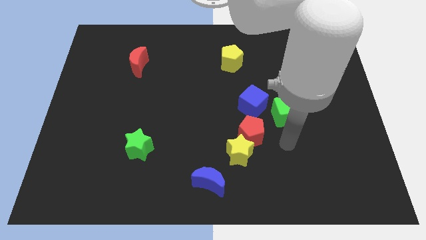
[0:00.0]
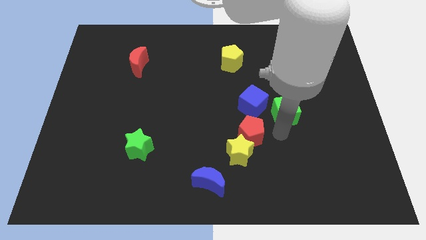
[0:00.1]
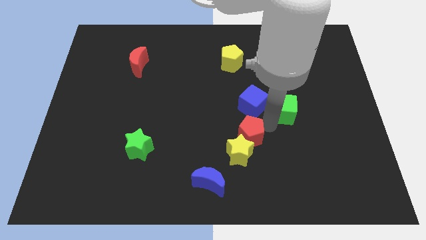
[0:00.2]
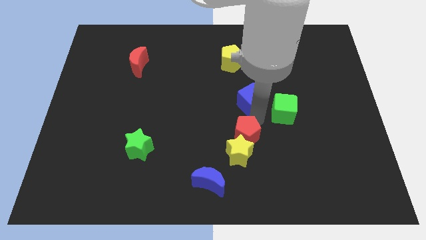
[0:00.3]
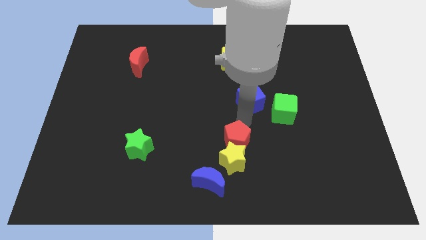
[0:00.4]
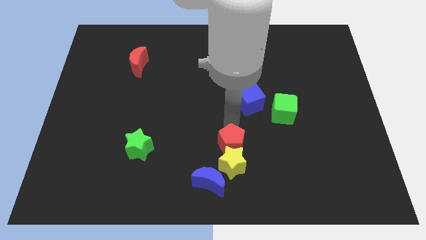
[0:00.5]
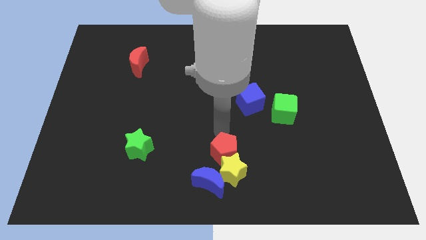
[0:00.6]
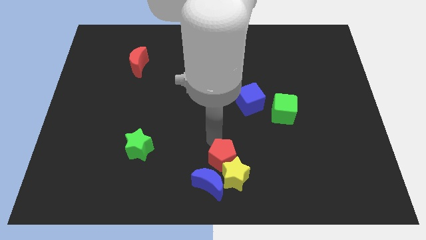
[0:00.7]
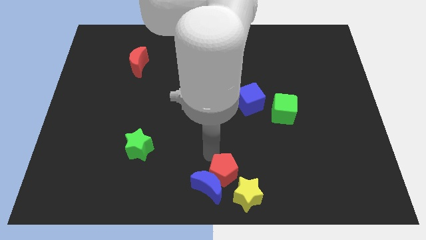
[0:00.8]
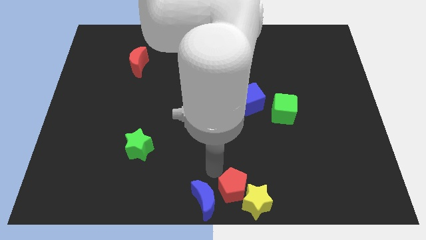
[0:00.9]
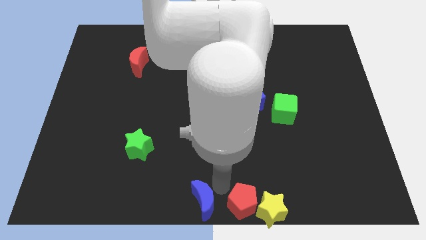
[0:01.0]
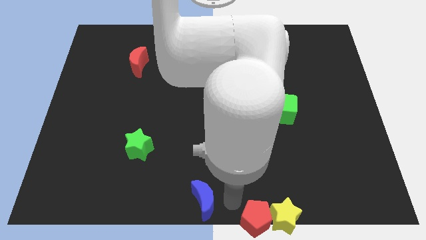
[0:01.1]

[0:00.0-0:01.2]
move the yellow star away from the red pentagon and blue moon

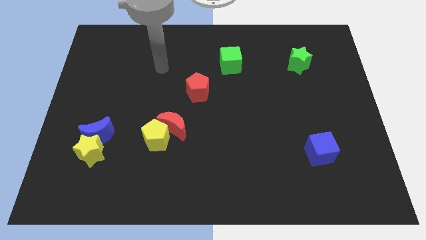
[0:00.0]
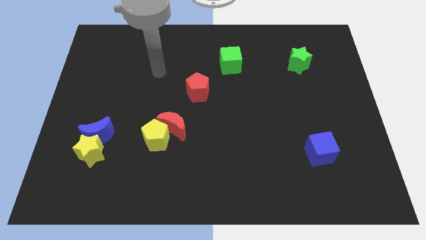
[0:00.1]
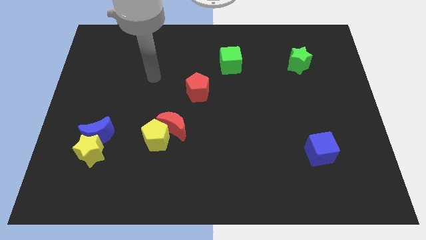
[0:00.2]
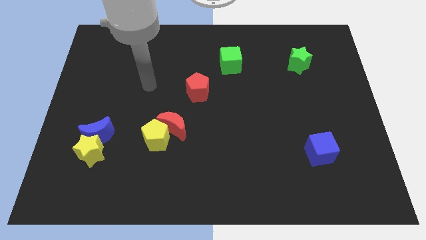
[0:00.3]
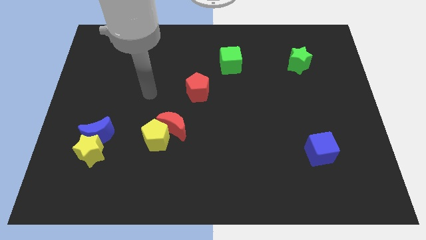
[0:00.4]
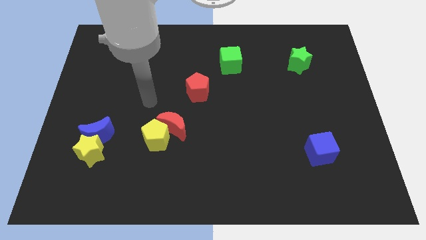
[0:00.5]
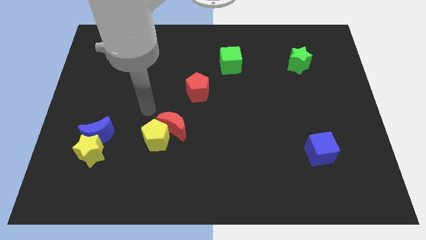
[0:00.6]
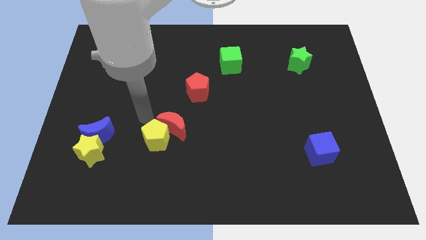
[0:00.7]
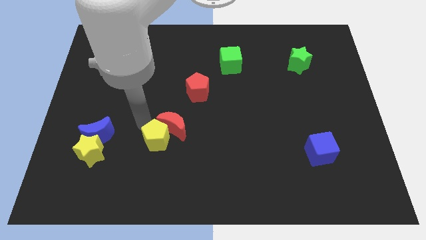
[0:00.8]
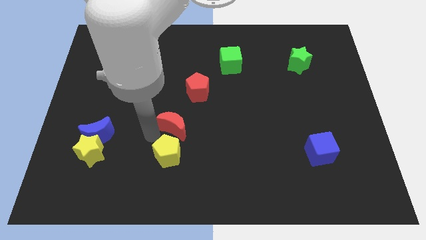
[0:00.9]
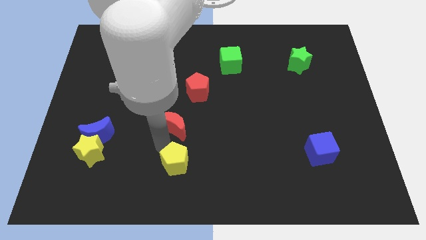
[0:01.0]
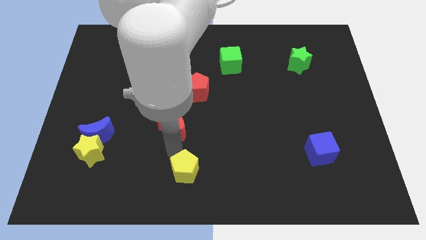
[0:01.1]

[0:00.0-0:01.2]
pull the red moon apart from the yellow pentagon

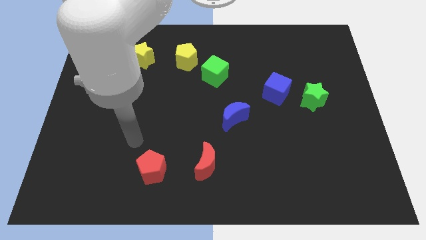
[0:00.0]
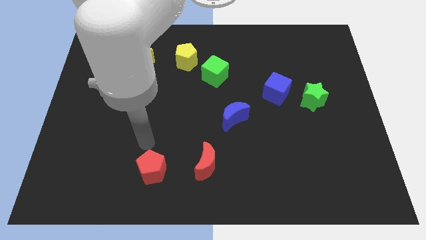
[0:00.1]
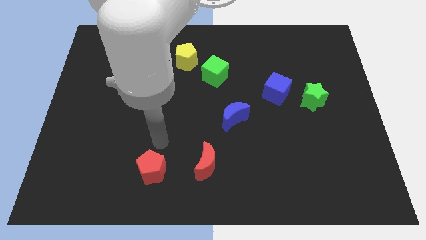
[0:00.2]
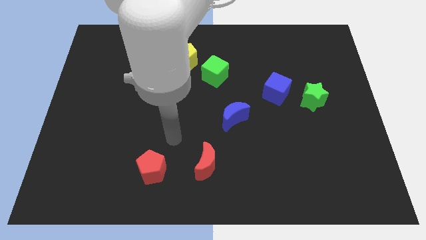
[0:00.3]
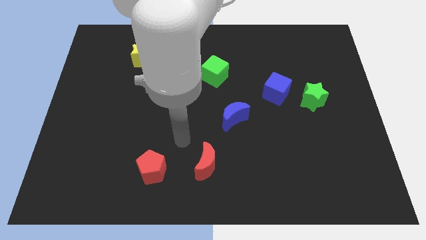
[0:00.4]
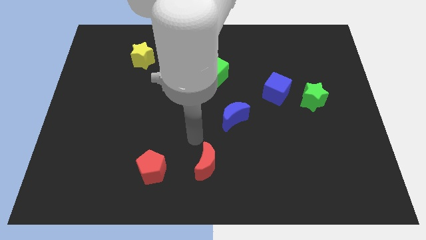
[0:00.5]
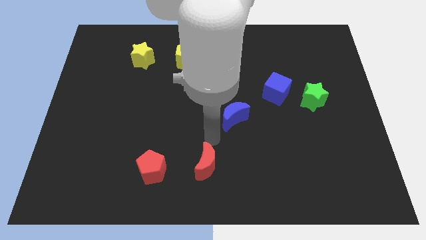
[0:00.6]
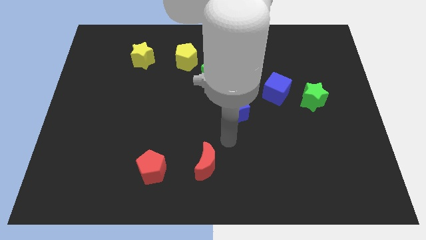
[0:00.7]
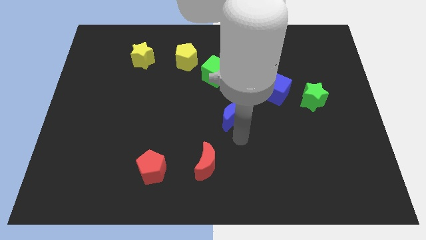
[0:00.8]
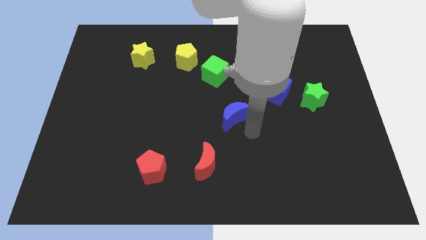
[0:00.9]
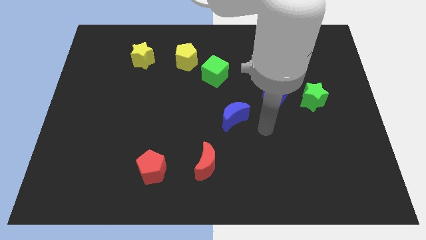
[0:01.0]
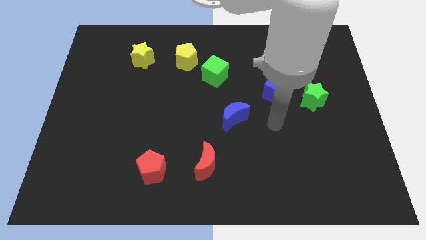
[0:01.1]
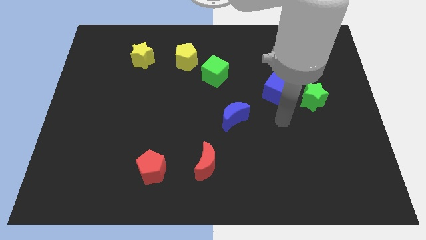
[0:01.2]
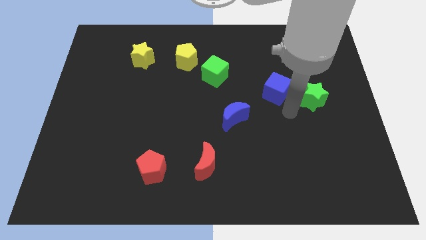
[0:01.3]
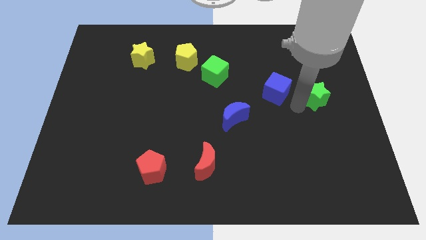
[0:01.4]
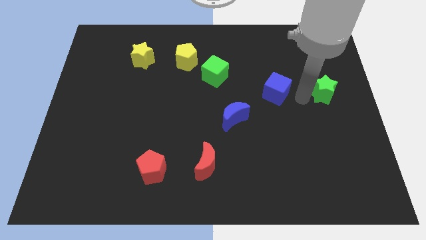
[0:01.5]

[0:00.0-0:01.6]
pull the blue cube apart from the green star

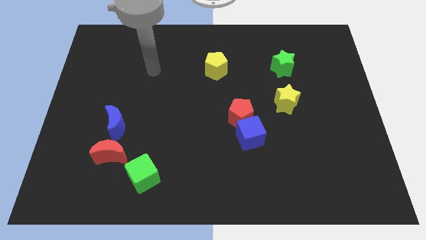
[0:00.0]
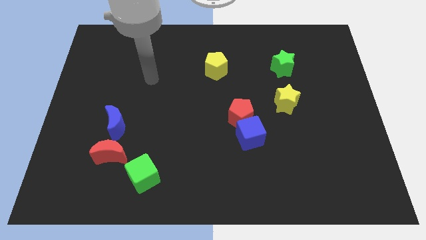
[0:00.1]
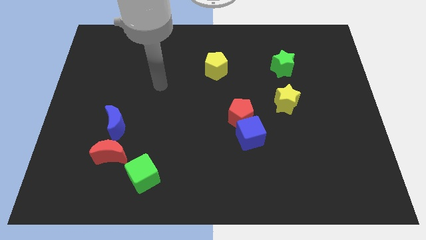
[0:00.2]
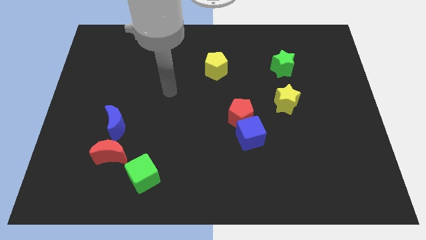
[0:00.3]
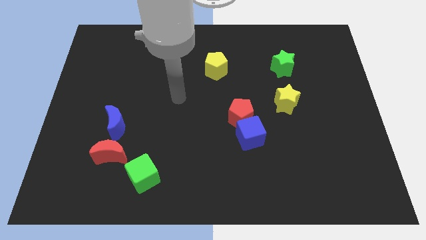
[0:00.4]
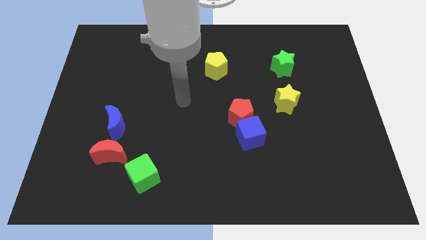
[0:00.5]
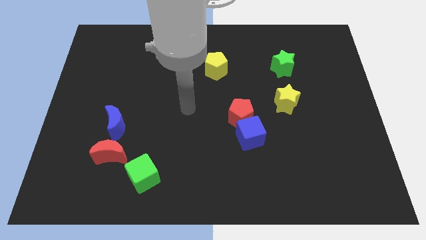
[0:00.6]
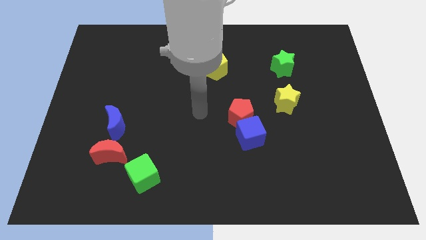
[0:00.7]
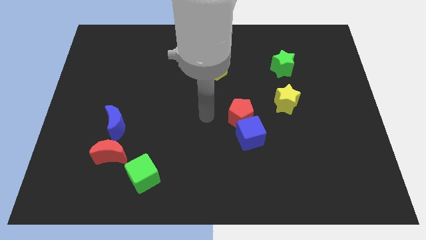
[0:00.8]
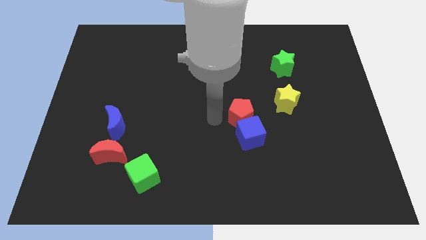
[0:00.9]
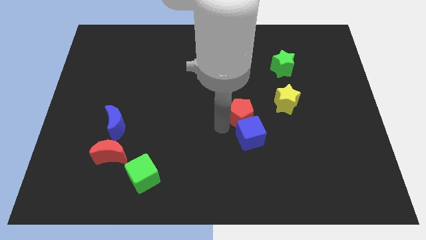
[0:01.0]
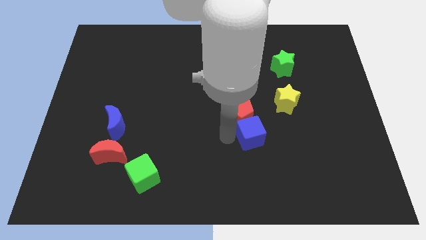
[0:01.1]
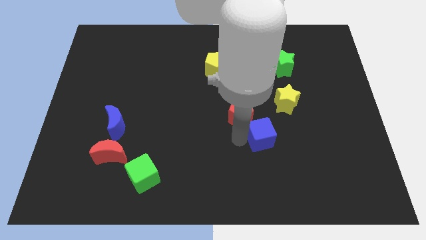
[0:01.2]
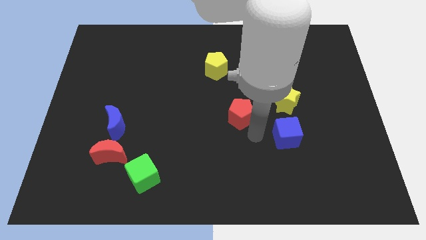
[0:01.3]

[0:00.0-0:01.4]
move the red pentagon away from the blue cube

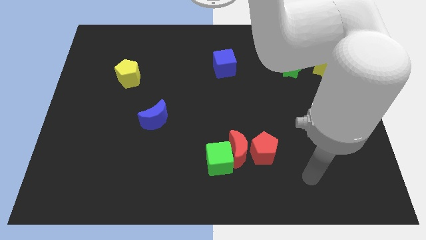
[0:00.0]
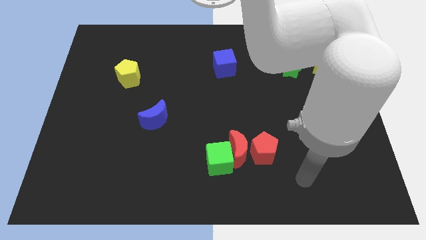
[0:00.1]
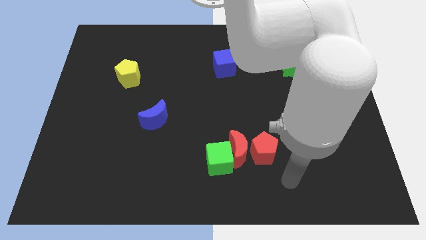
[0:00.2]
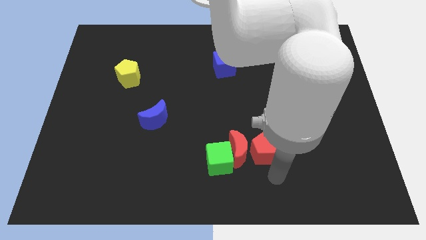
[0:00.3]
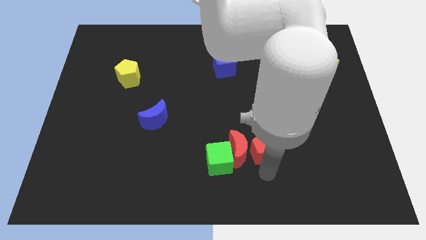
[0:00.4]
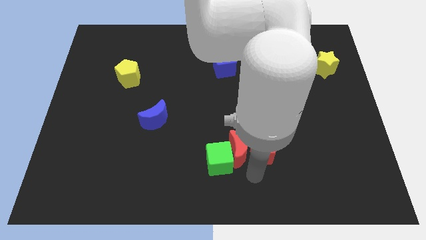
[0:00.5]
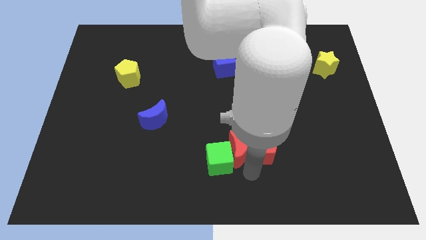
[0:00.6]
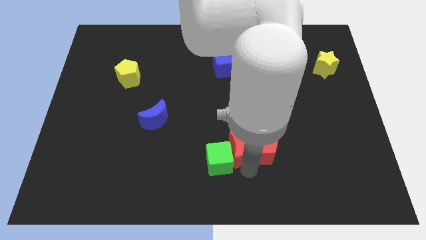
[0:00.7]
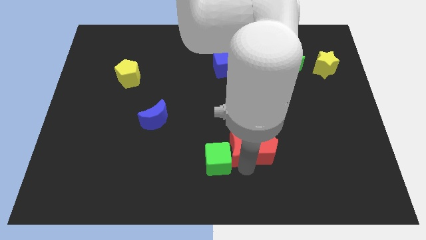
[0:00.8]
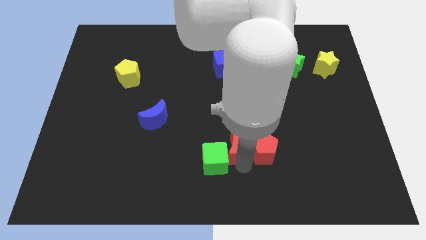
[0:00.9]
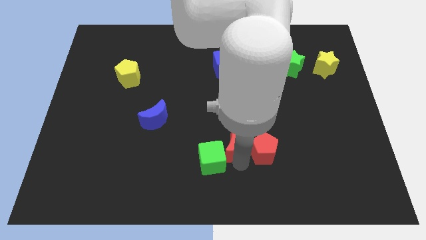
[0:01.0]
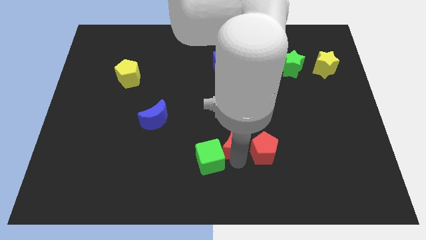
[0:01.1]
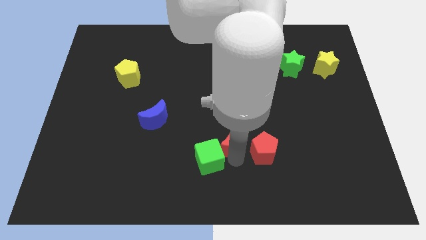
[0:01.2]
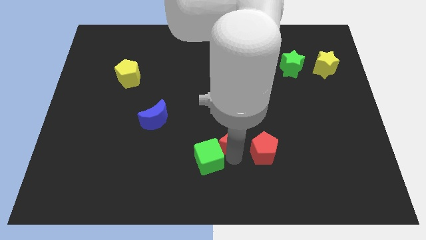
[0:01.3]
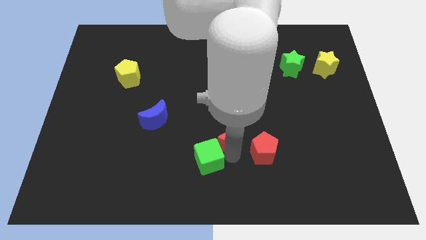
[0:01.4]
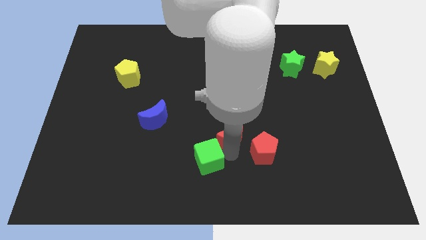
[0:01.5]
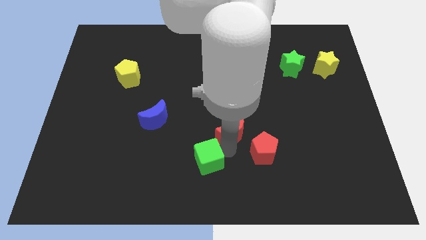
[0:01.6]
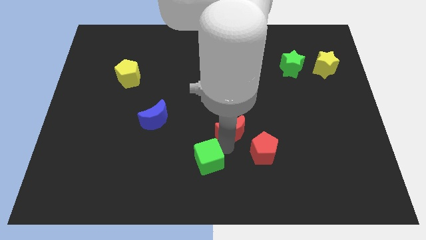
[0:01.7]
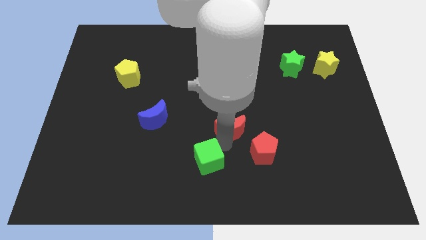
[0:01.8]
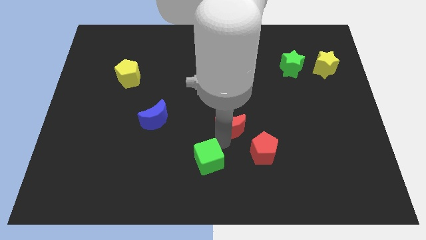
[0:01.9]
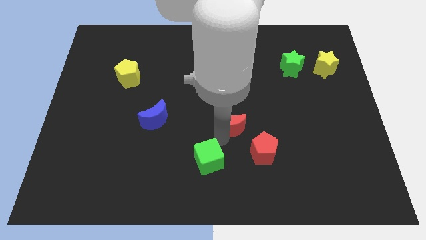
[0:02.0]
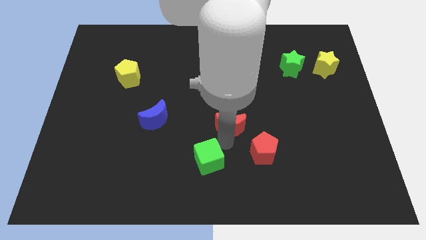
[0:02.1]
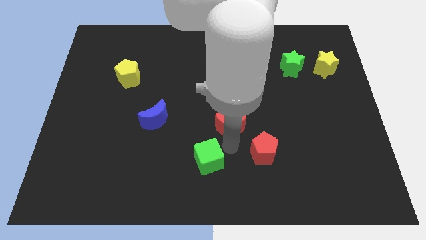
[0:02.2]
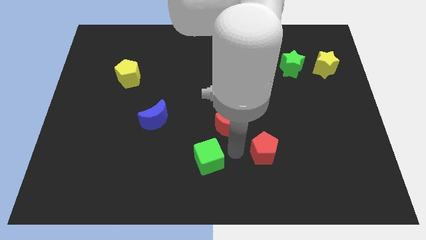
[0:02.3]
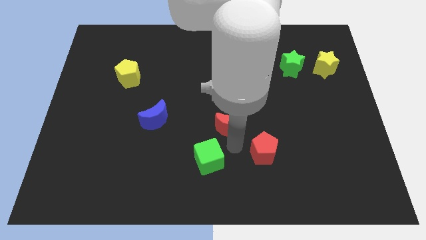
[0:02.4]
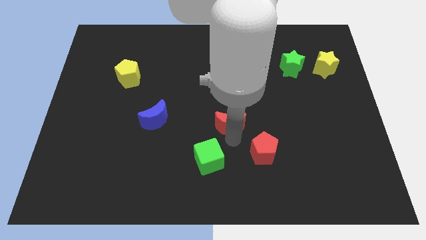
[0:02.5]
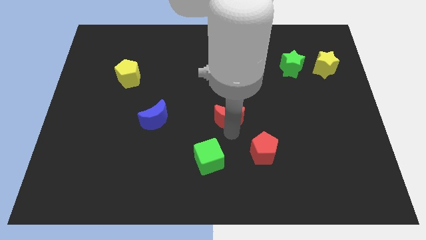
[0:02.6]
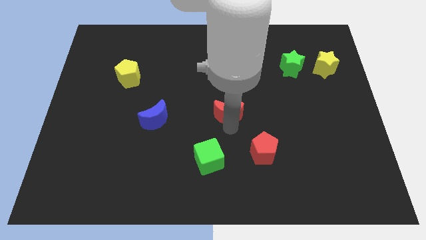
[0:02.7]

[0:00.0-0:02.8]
separate the red moon from the green cube and red pentagon

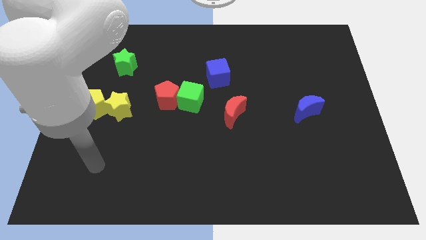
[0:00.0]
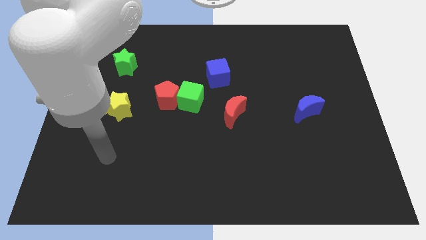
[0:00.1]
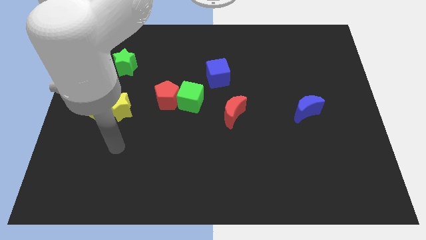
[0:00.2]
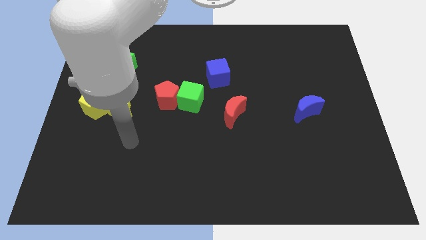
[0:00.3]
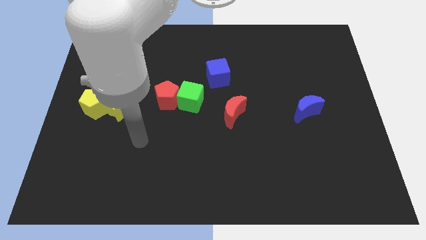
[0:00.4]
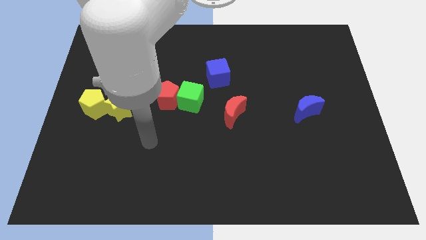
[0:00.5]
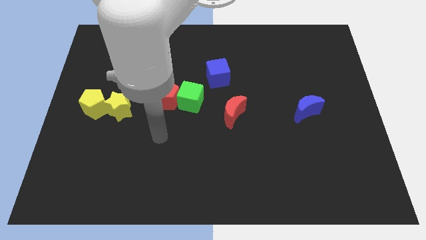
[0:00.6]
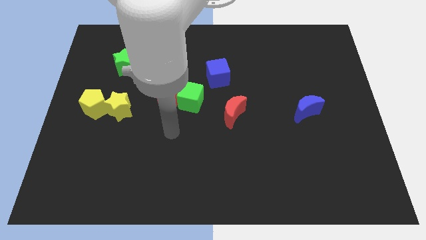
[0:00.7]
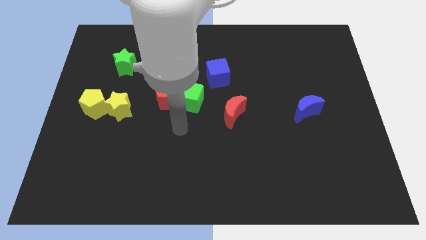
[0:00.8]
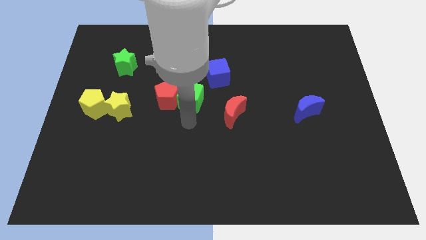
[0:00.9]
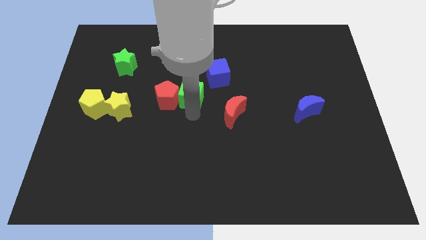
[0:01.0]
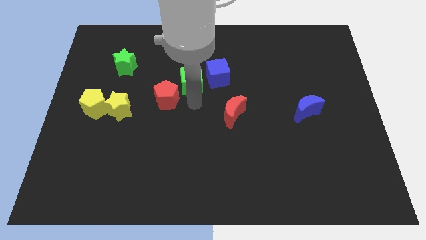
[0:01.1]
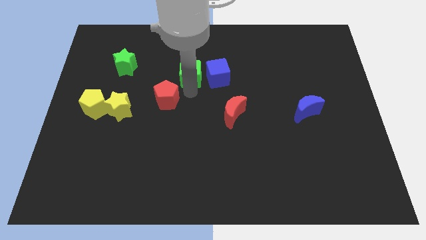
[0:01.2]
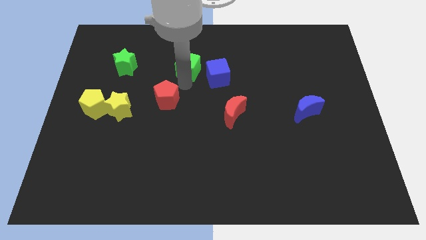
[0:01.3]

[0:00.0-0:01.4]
separate the red pentagon from the green cube
